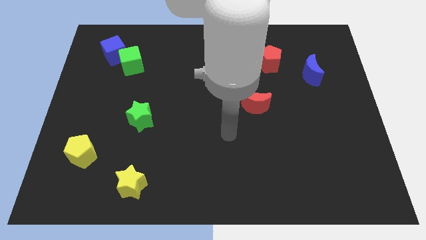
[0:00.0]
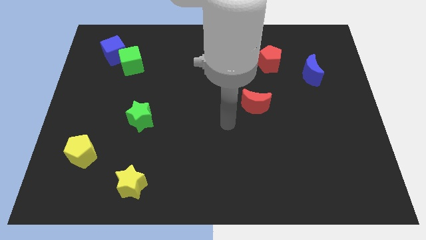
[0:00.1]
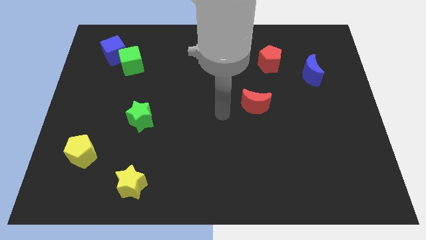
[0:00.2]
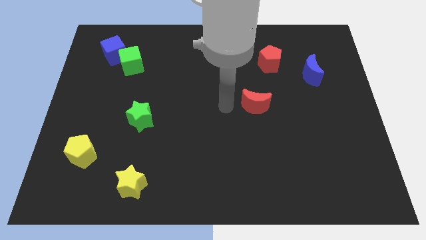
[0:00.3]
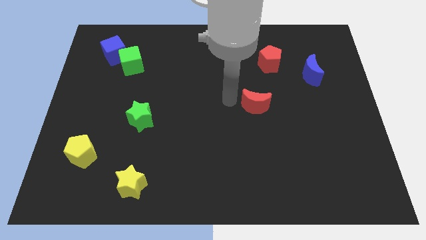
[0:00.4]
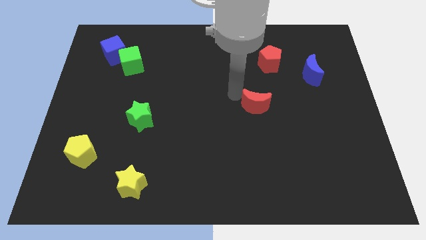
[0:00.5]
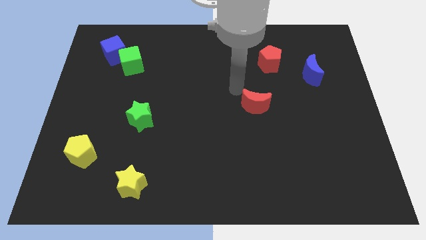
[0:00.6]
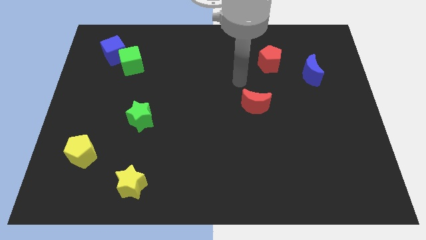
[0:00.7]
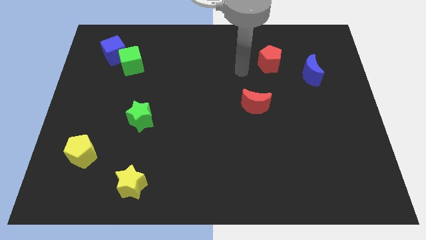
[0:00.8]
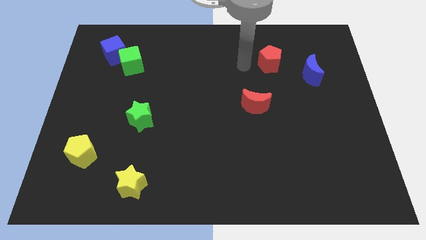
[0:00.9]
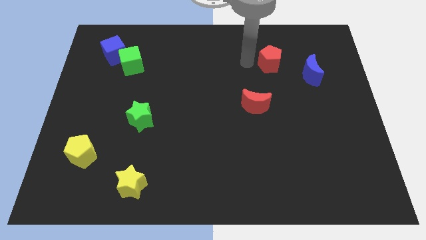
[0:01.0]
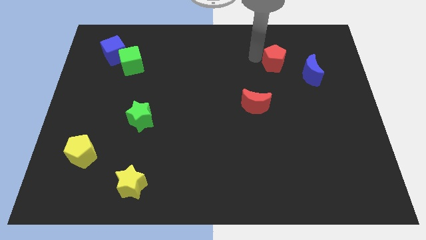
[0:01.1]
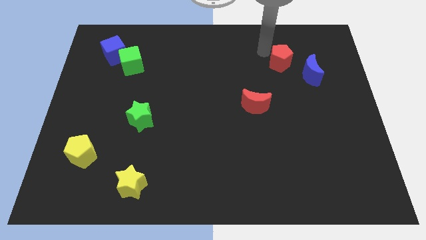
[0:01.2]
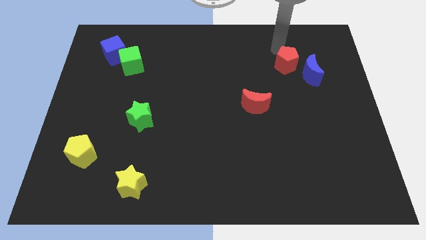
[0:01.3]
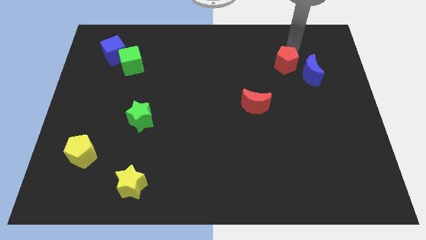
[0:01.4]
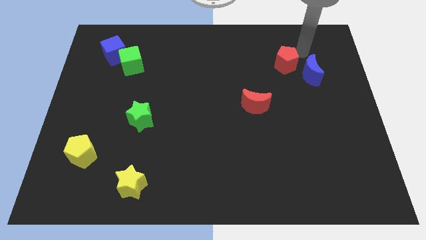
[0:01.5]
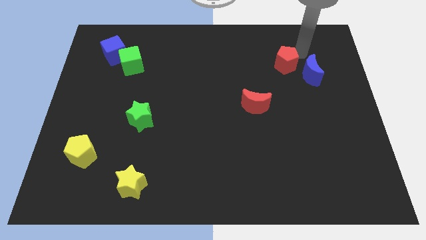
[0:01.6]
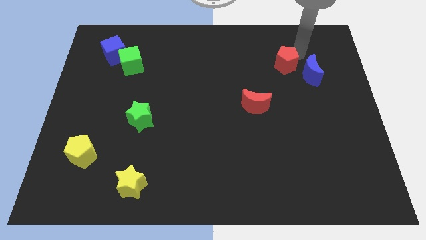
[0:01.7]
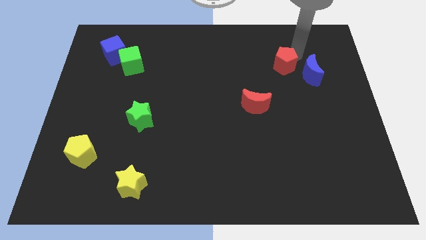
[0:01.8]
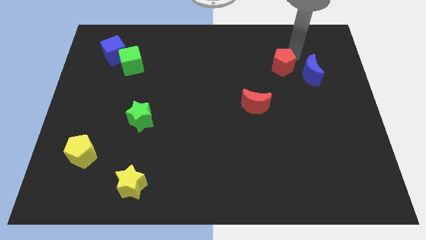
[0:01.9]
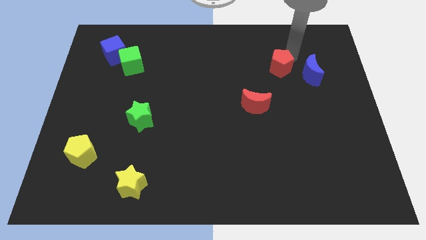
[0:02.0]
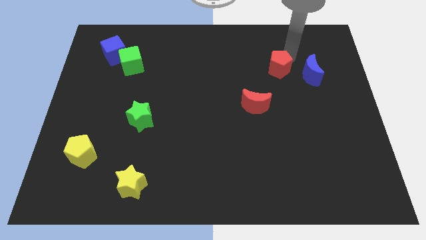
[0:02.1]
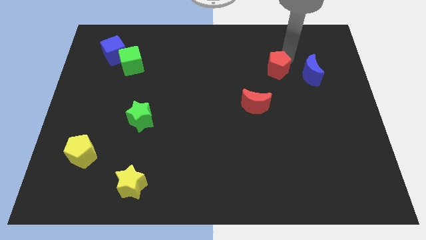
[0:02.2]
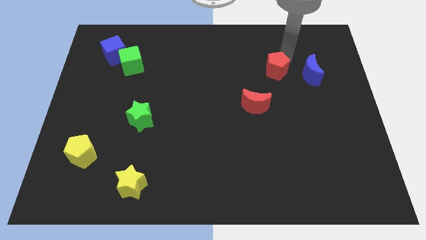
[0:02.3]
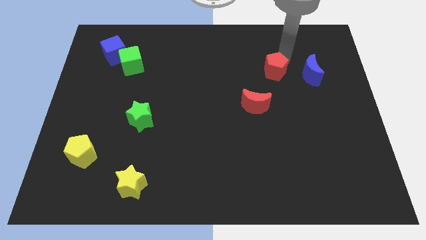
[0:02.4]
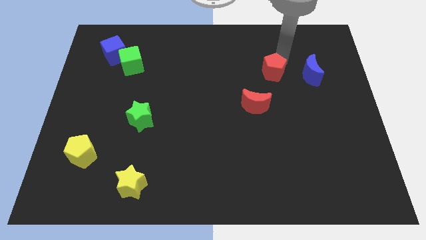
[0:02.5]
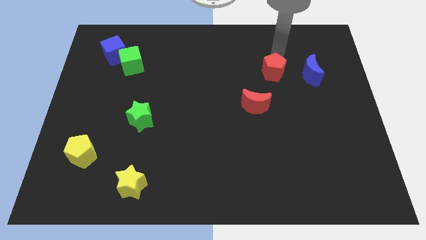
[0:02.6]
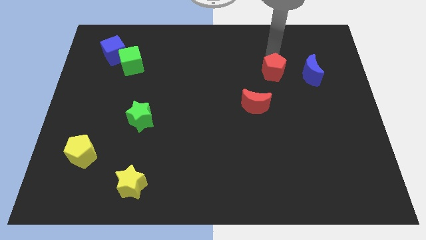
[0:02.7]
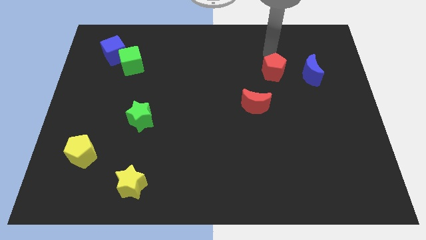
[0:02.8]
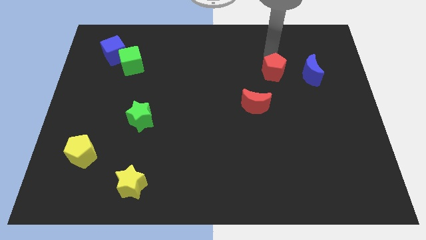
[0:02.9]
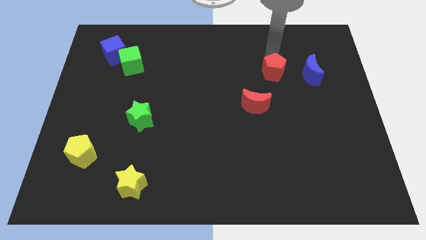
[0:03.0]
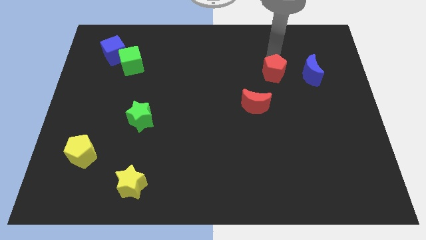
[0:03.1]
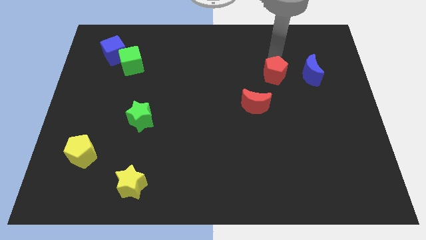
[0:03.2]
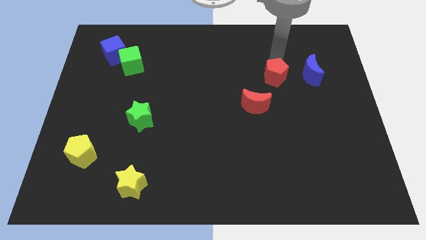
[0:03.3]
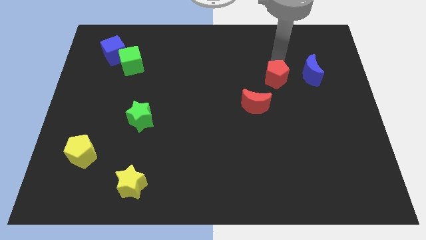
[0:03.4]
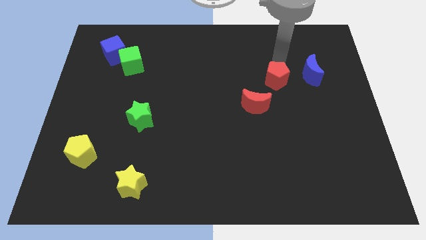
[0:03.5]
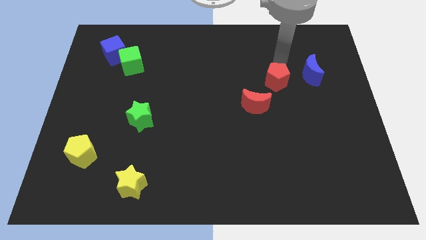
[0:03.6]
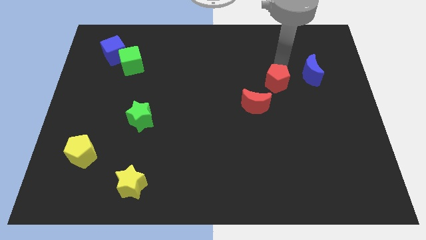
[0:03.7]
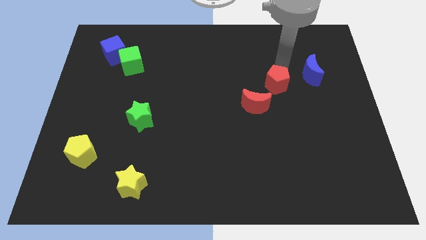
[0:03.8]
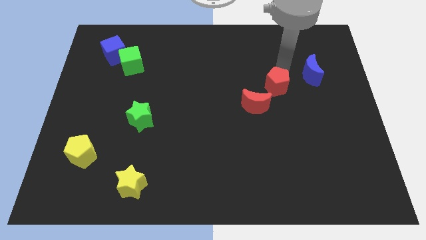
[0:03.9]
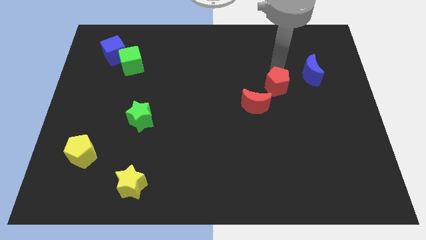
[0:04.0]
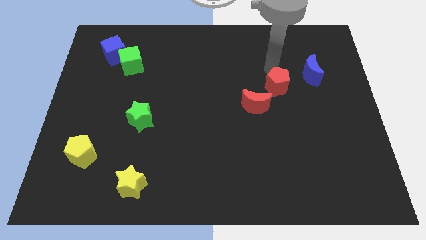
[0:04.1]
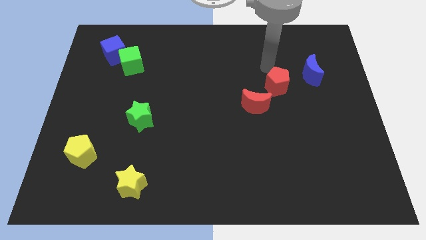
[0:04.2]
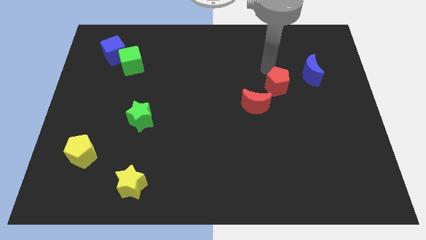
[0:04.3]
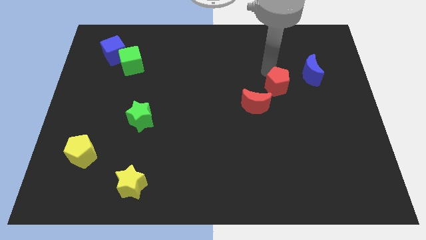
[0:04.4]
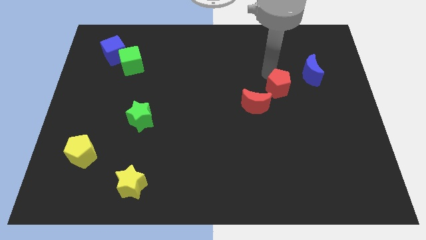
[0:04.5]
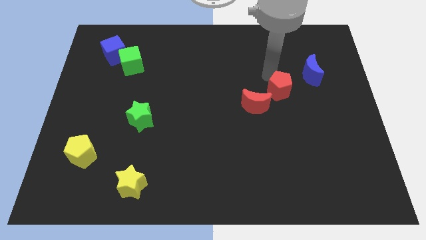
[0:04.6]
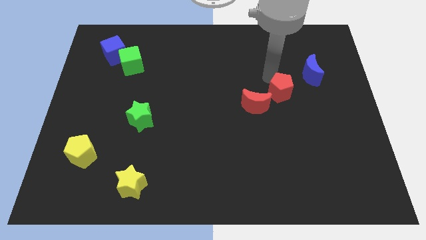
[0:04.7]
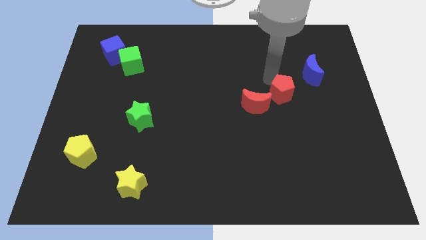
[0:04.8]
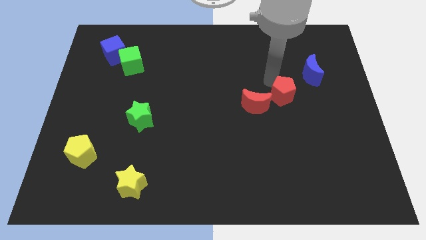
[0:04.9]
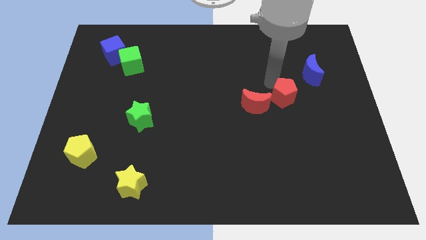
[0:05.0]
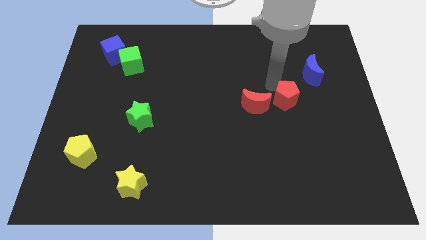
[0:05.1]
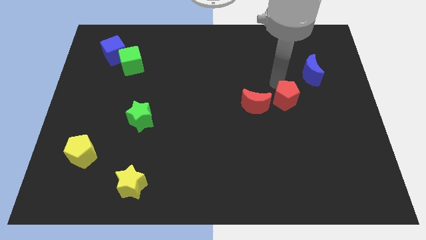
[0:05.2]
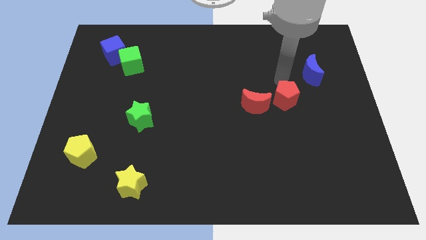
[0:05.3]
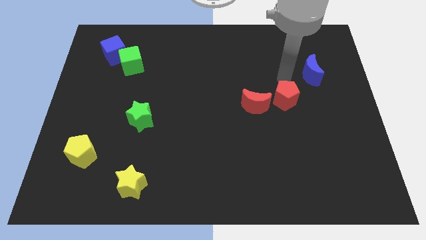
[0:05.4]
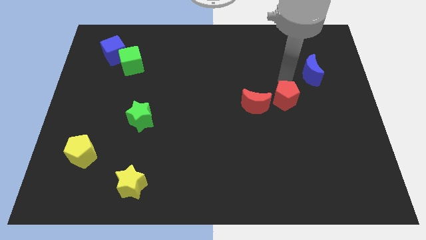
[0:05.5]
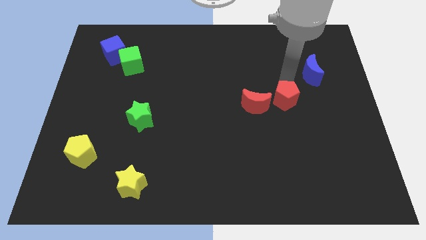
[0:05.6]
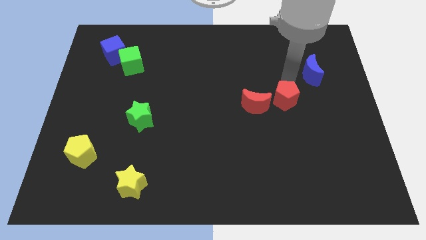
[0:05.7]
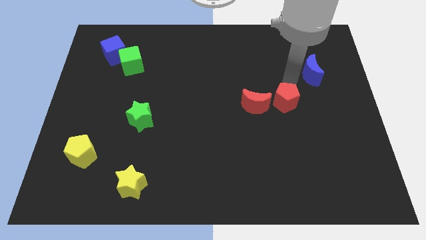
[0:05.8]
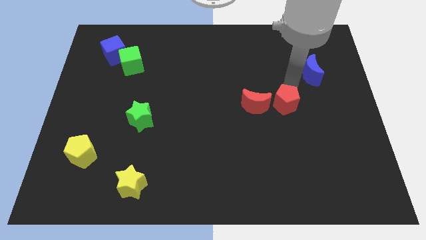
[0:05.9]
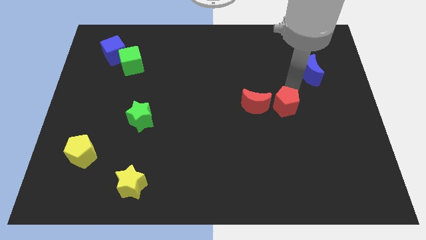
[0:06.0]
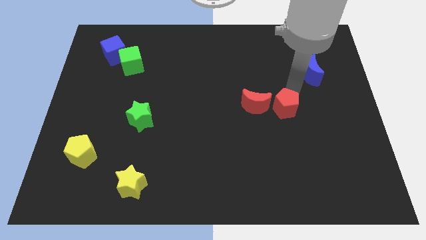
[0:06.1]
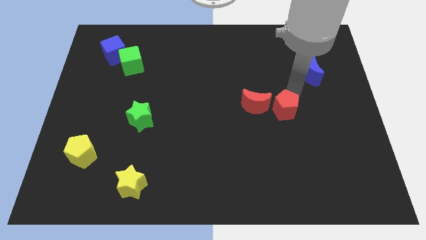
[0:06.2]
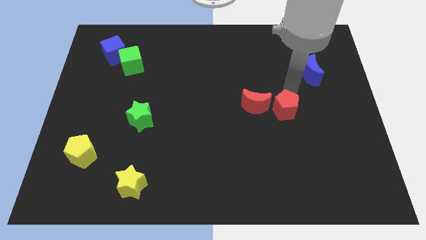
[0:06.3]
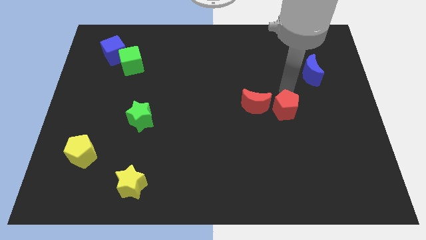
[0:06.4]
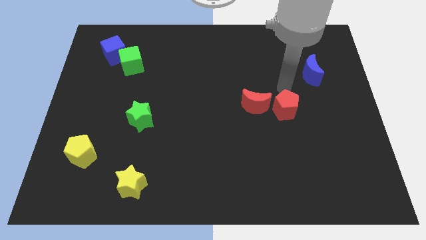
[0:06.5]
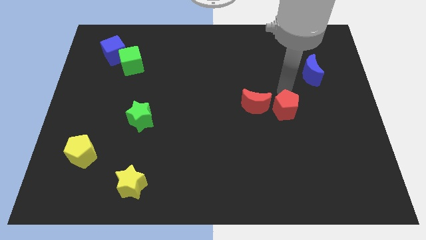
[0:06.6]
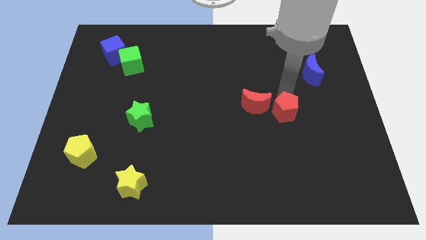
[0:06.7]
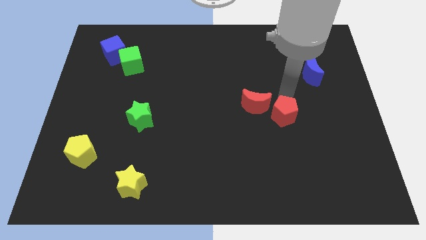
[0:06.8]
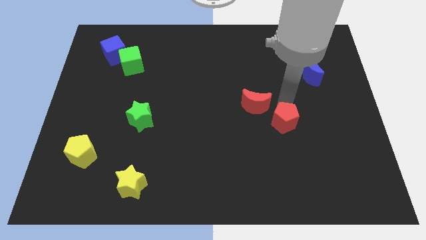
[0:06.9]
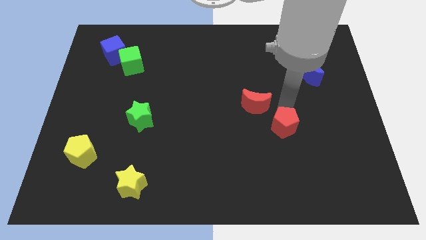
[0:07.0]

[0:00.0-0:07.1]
move the red pentagon downwards

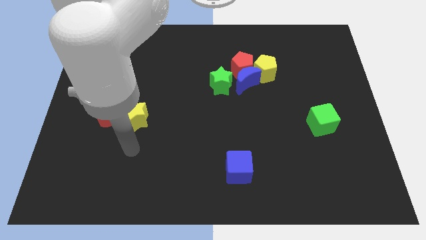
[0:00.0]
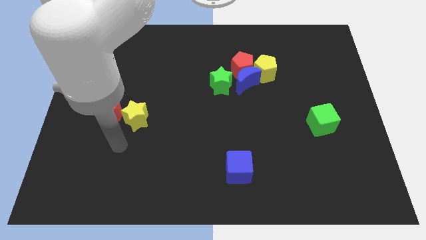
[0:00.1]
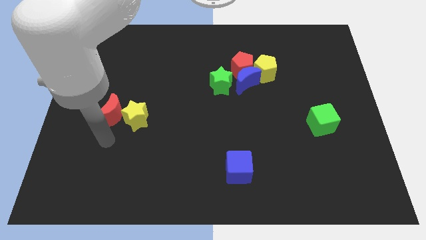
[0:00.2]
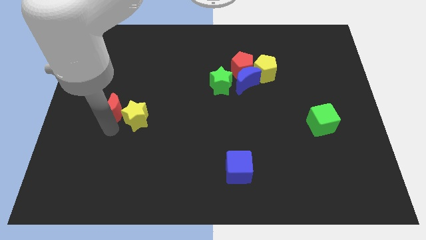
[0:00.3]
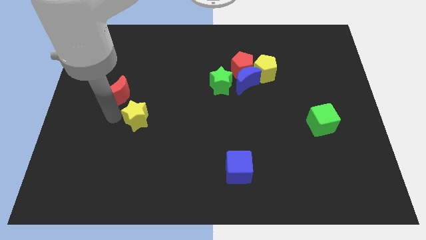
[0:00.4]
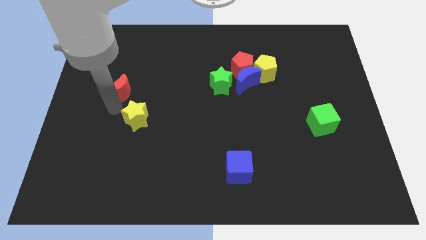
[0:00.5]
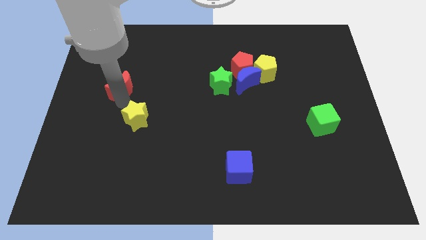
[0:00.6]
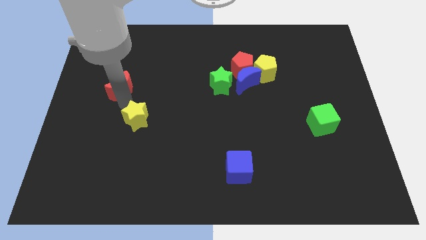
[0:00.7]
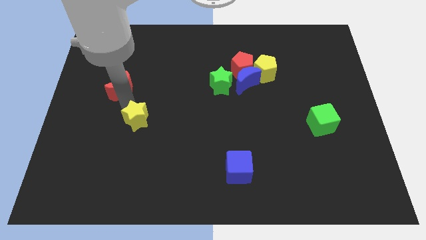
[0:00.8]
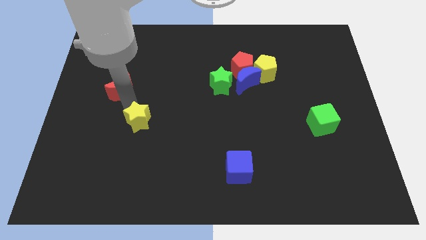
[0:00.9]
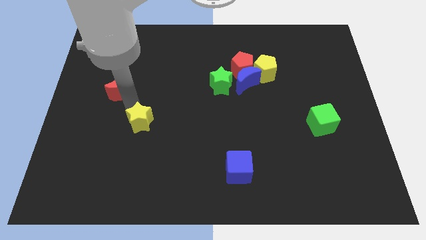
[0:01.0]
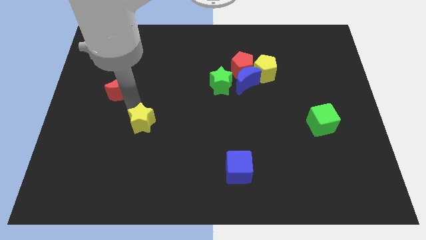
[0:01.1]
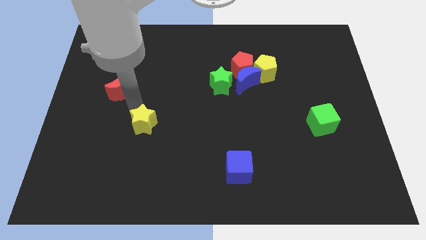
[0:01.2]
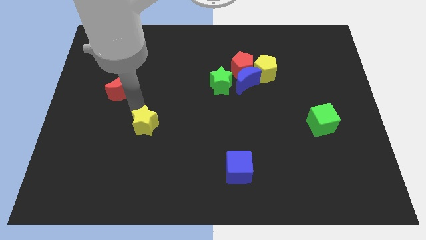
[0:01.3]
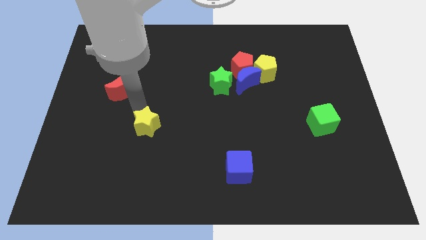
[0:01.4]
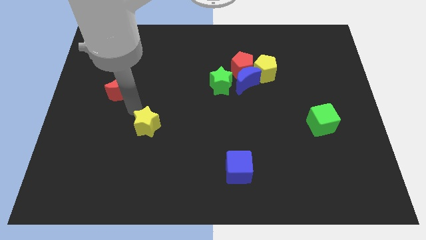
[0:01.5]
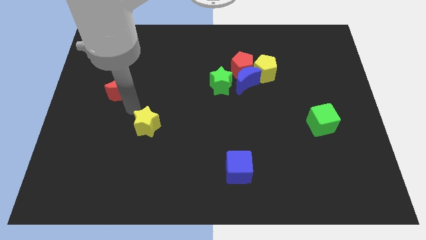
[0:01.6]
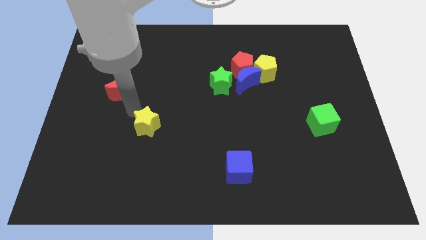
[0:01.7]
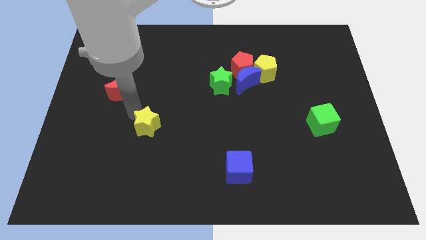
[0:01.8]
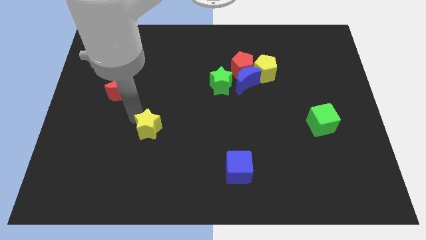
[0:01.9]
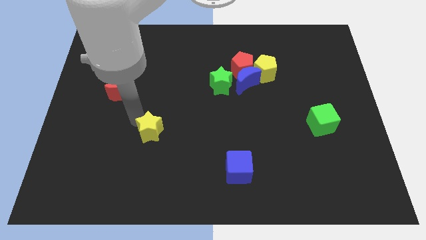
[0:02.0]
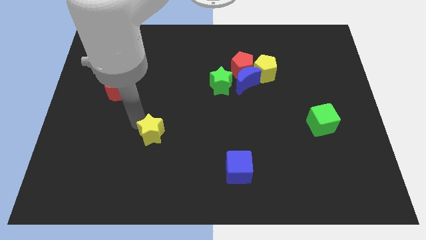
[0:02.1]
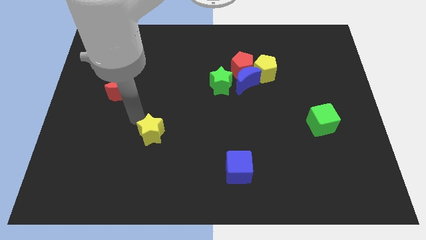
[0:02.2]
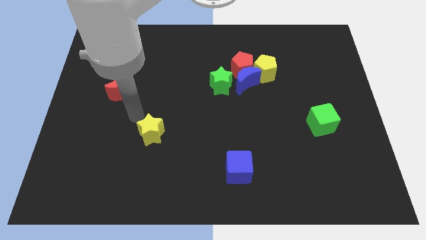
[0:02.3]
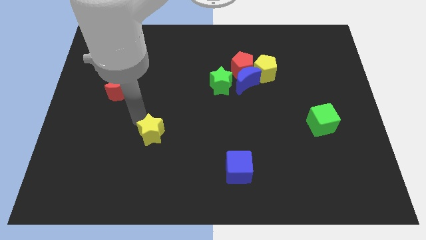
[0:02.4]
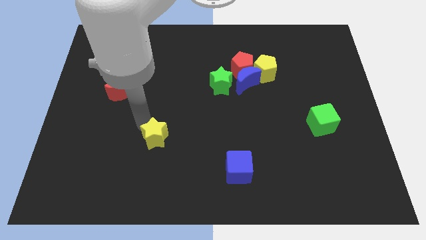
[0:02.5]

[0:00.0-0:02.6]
slide the yellow star a bit diagonally downwards and right
